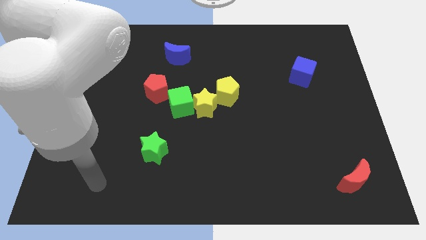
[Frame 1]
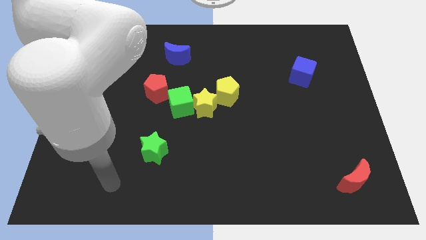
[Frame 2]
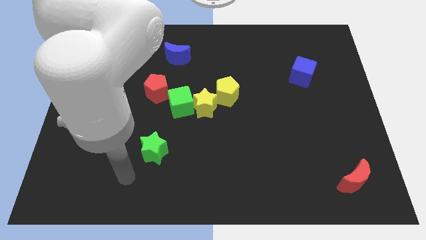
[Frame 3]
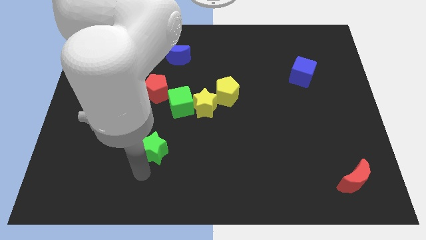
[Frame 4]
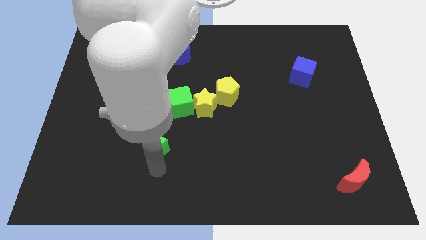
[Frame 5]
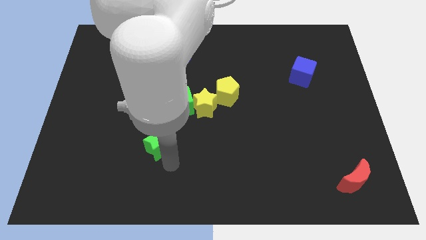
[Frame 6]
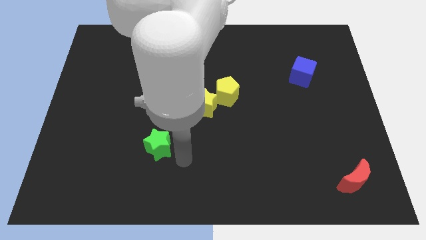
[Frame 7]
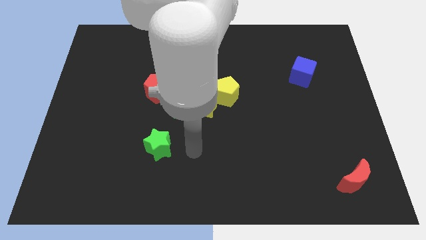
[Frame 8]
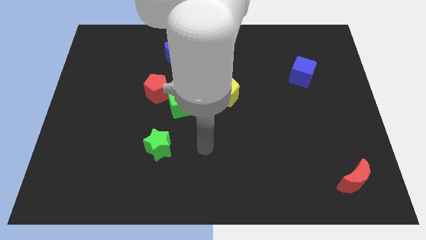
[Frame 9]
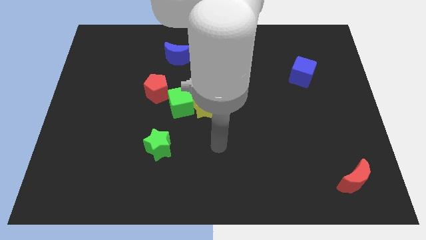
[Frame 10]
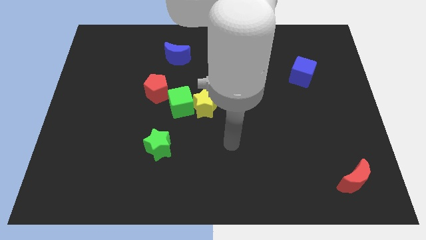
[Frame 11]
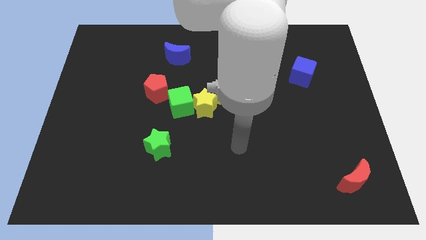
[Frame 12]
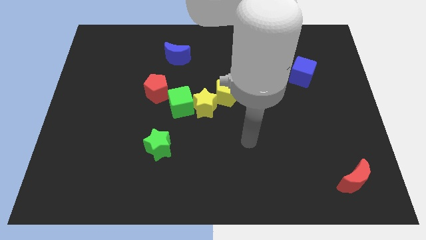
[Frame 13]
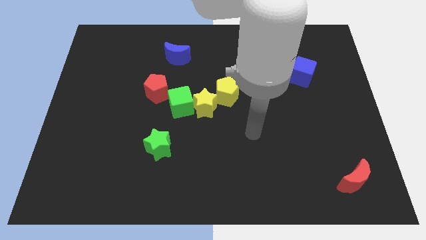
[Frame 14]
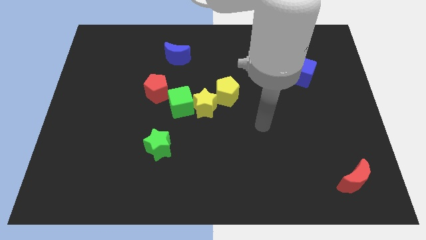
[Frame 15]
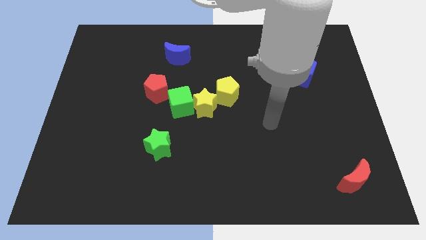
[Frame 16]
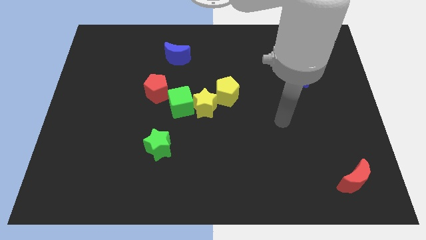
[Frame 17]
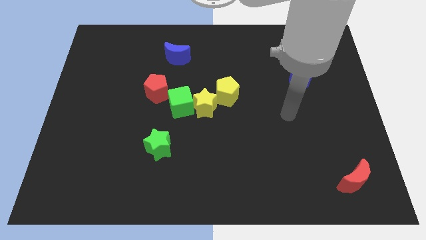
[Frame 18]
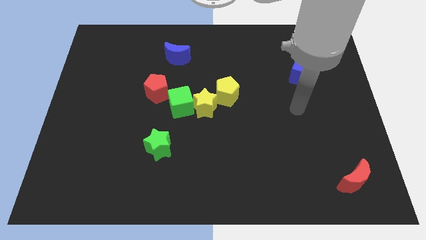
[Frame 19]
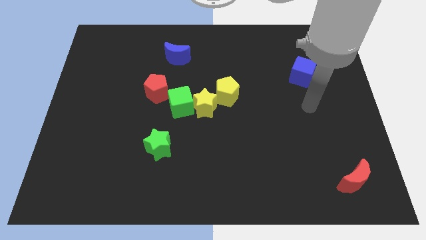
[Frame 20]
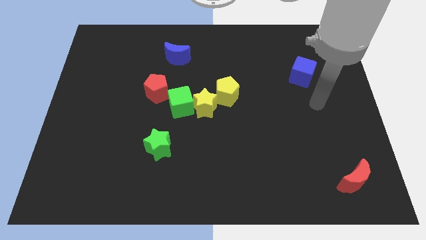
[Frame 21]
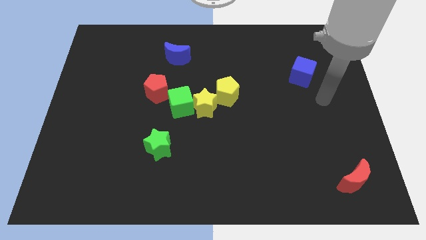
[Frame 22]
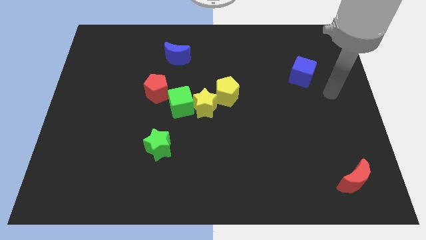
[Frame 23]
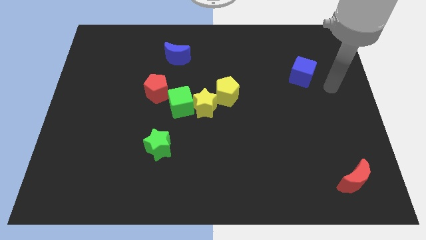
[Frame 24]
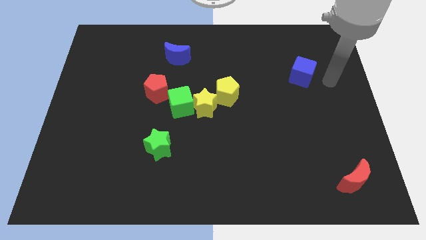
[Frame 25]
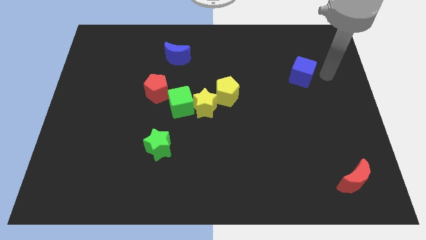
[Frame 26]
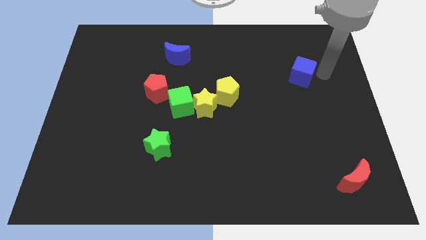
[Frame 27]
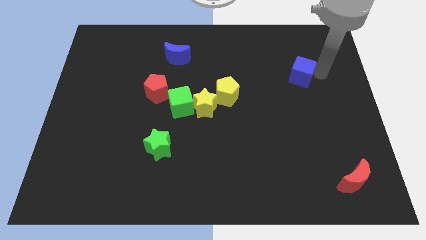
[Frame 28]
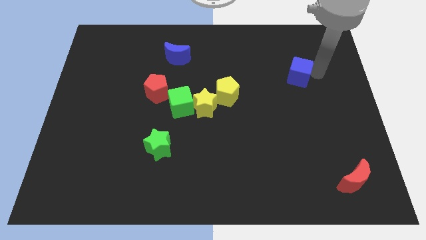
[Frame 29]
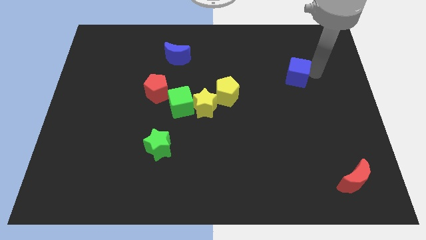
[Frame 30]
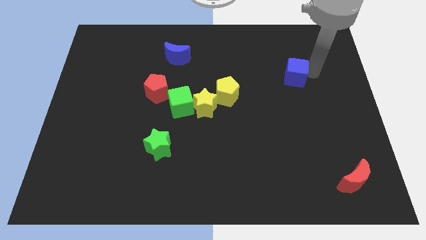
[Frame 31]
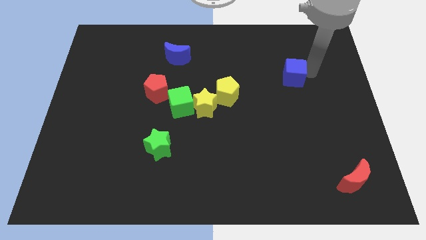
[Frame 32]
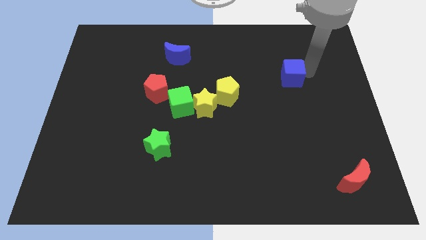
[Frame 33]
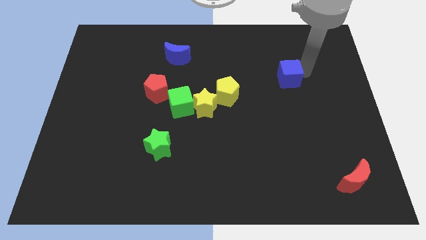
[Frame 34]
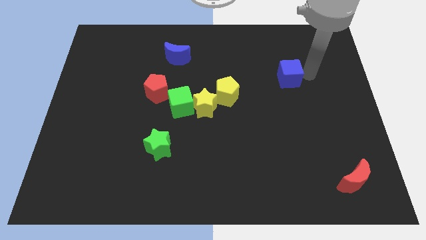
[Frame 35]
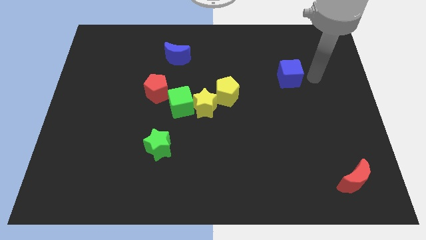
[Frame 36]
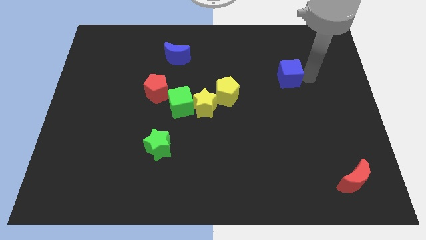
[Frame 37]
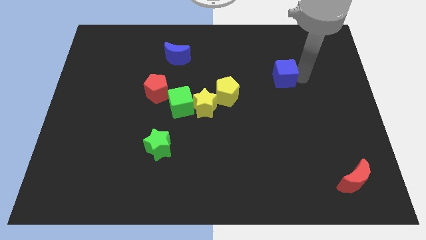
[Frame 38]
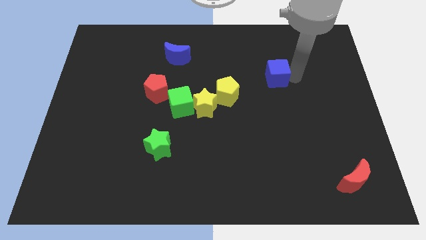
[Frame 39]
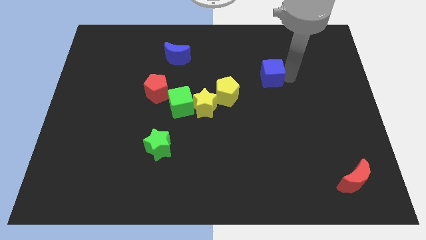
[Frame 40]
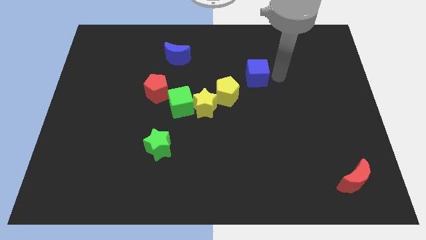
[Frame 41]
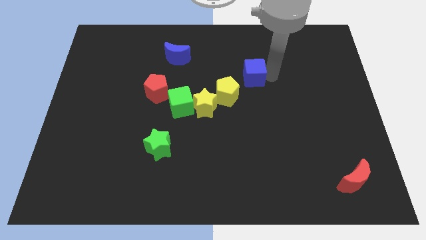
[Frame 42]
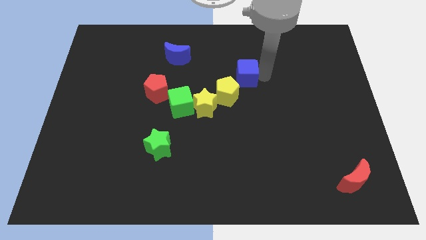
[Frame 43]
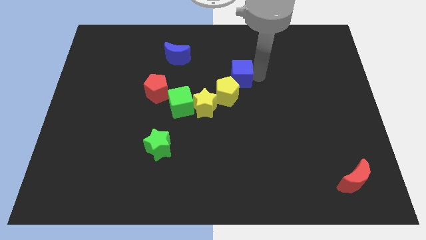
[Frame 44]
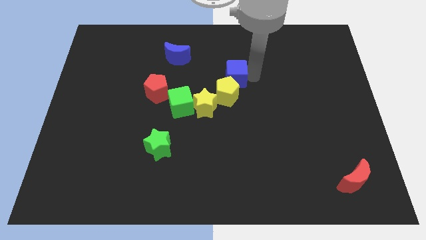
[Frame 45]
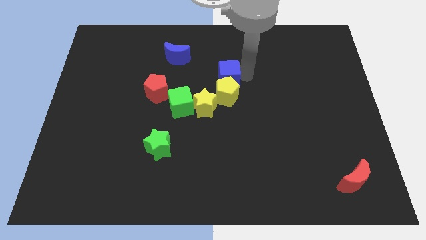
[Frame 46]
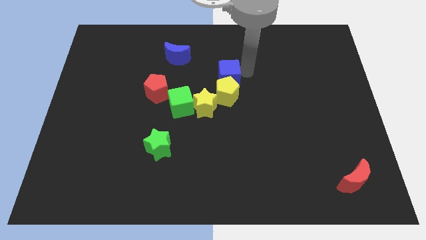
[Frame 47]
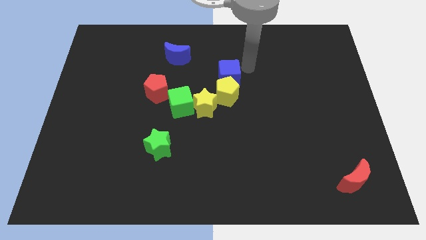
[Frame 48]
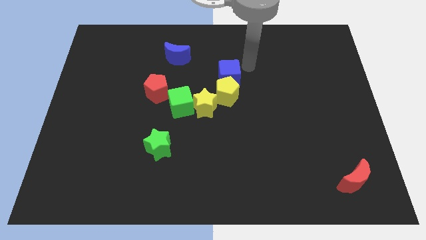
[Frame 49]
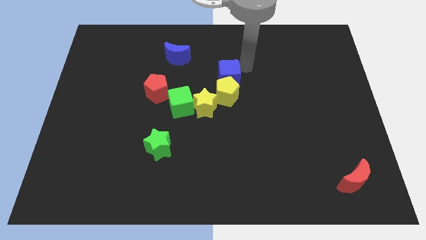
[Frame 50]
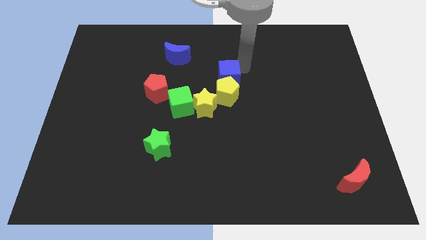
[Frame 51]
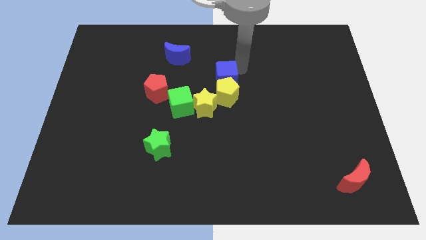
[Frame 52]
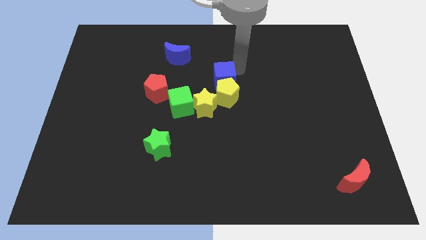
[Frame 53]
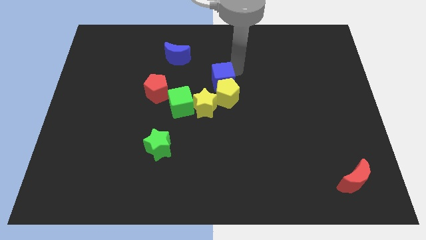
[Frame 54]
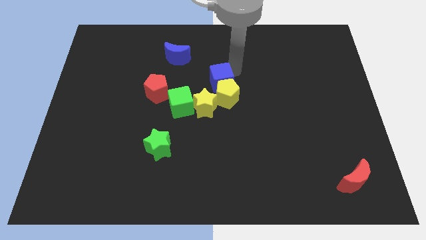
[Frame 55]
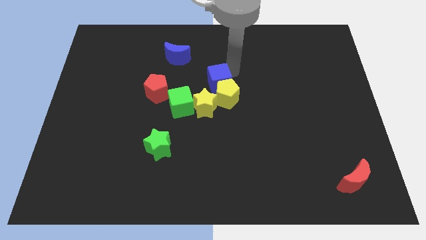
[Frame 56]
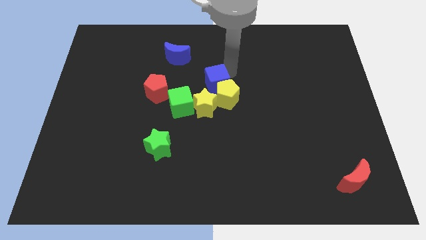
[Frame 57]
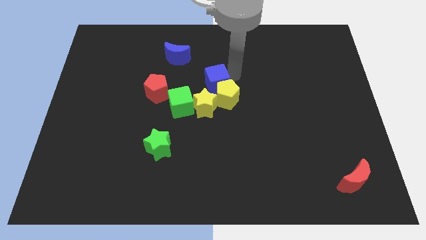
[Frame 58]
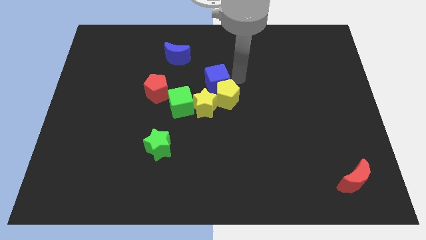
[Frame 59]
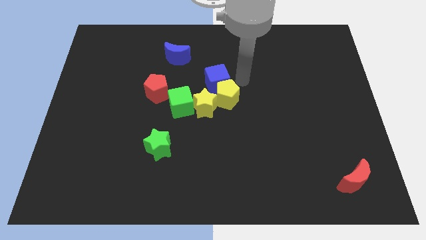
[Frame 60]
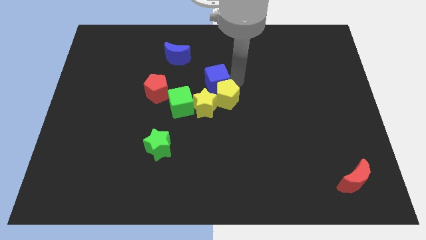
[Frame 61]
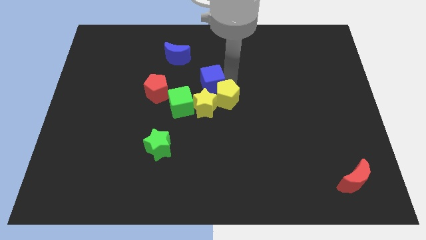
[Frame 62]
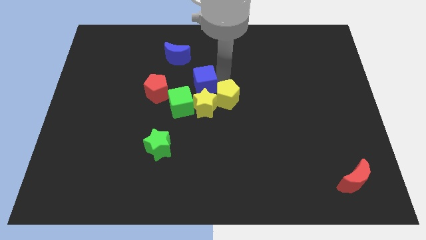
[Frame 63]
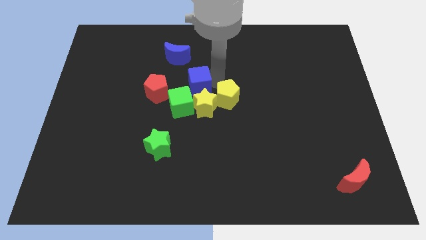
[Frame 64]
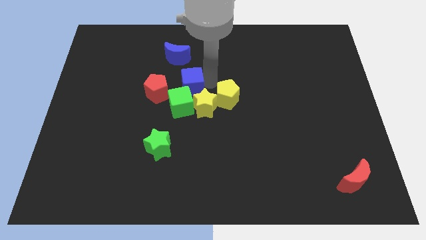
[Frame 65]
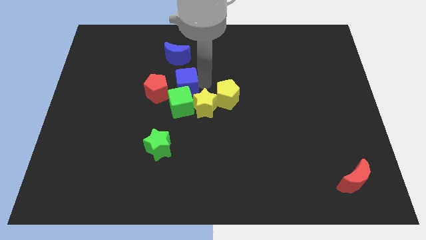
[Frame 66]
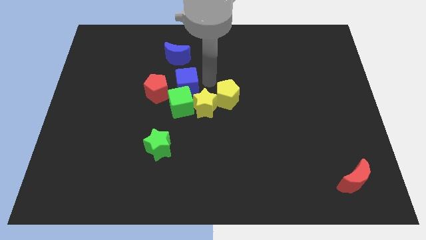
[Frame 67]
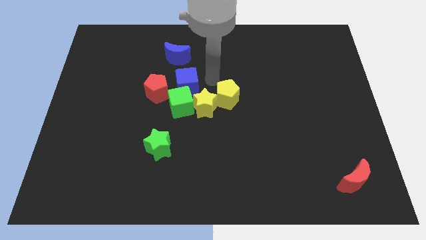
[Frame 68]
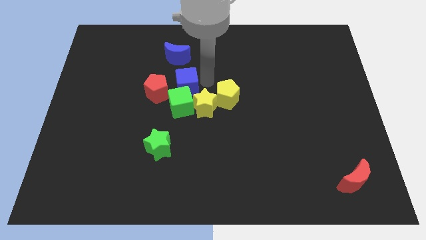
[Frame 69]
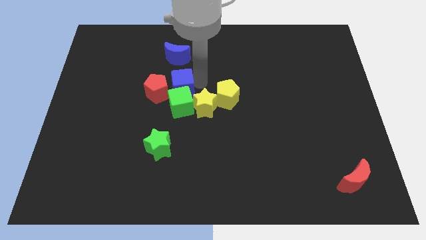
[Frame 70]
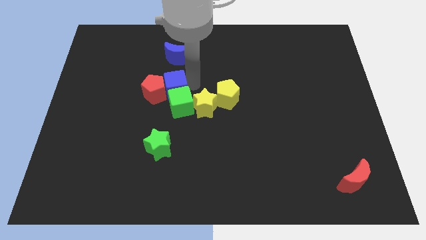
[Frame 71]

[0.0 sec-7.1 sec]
put the blue cube towards the red pentagon
